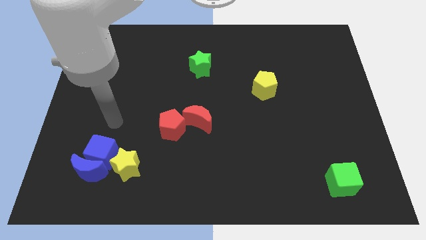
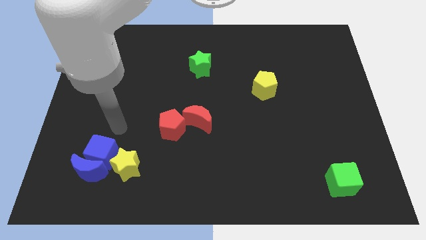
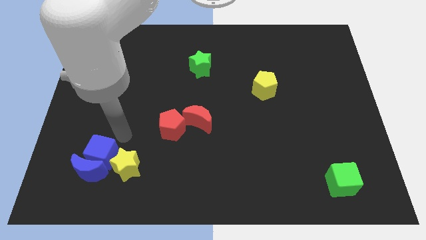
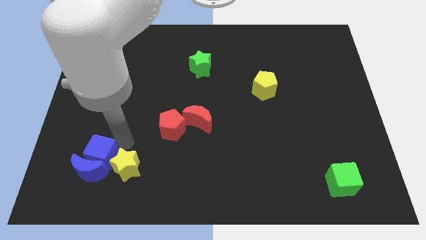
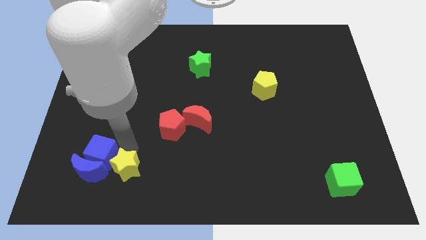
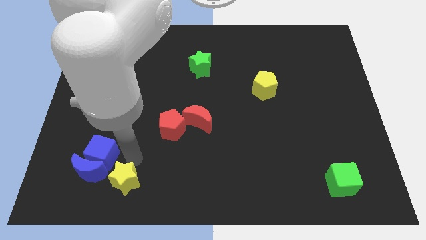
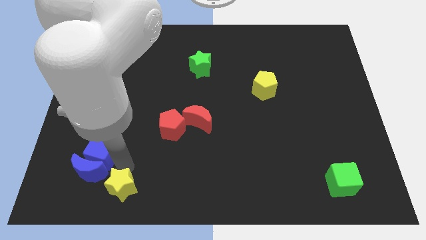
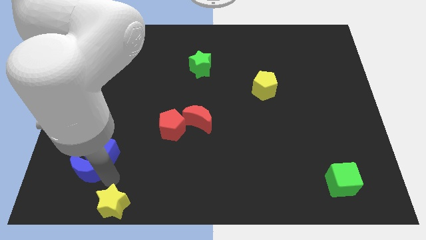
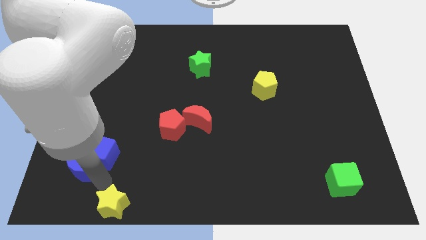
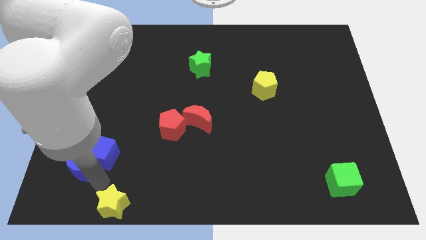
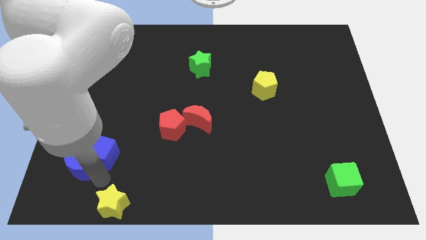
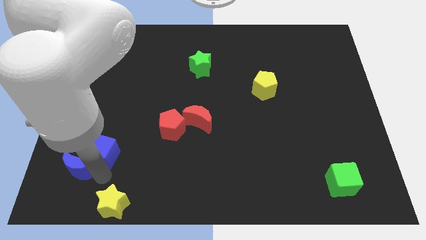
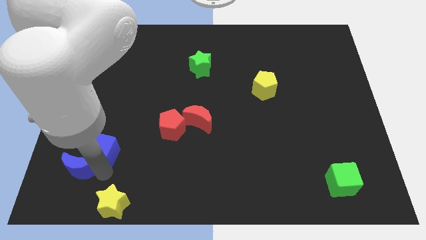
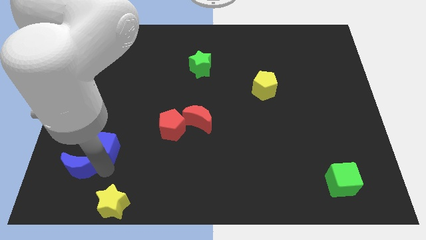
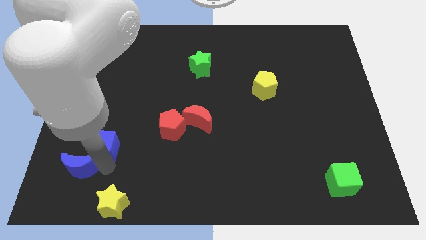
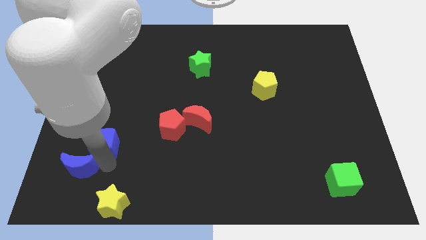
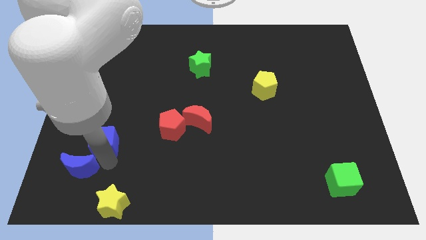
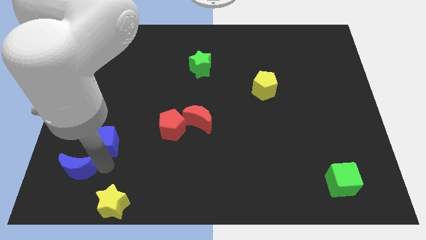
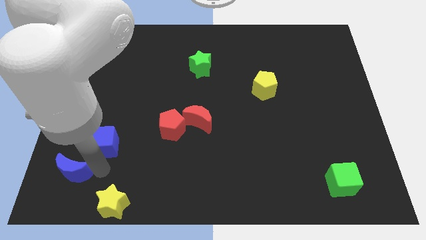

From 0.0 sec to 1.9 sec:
pull the blue cube apart from the blue moon and yellow star

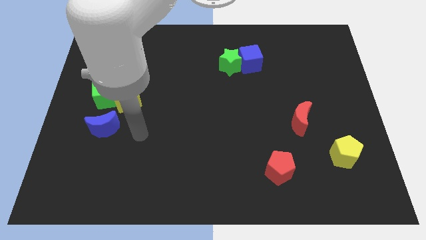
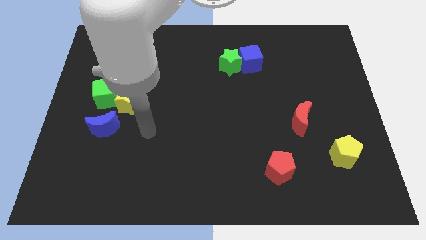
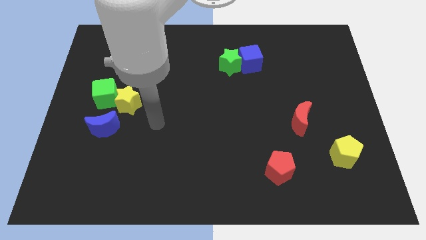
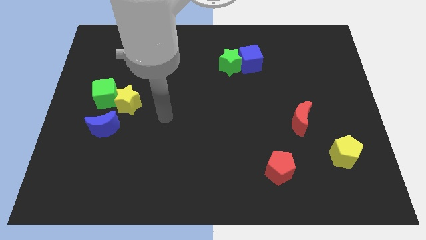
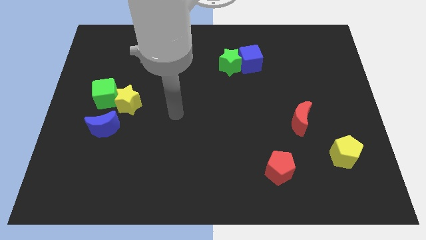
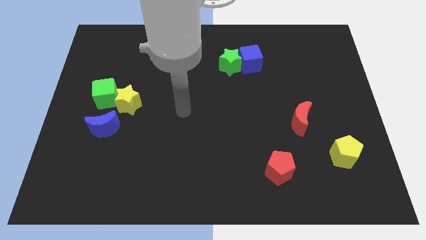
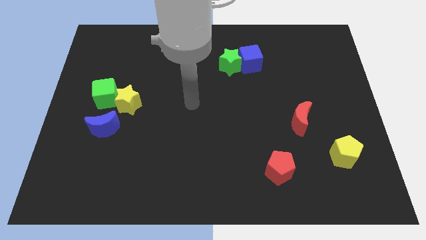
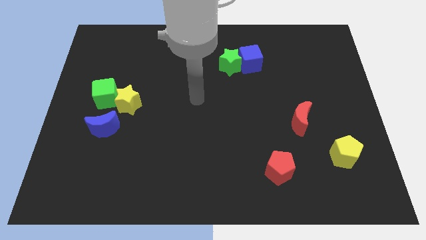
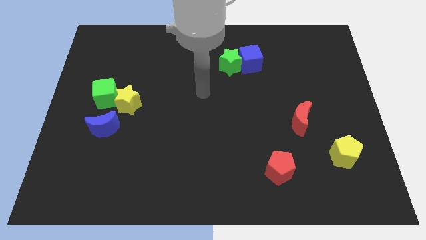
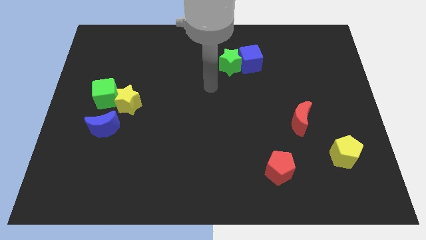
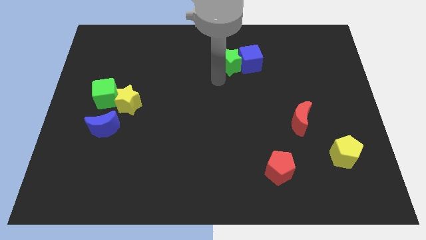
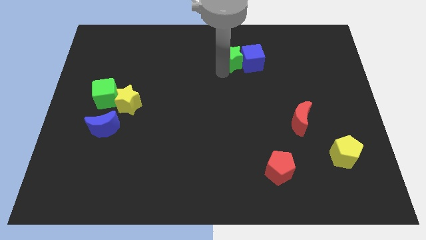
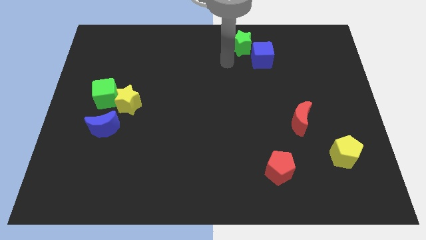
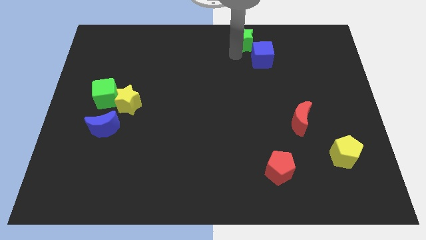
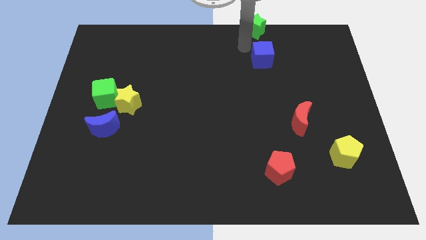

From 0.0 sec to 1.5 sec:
move the blue cube away from the green star

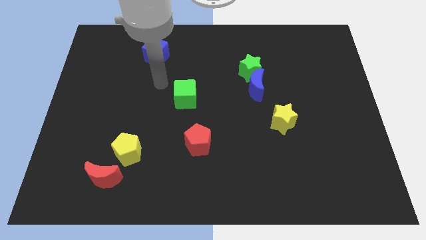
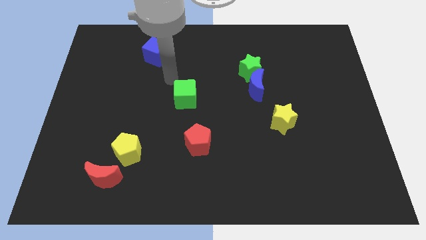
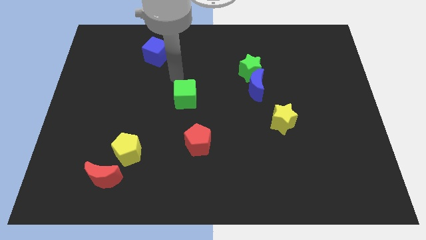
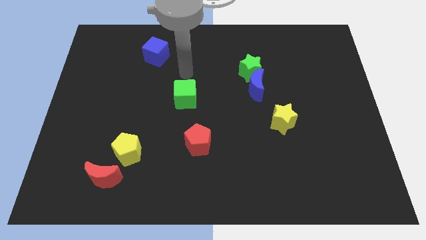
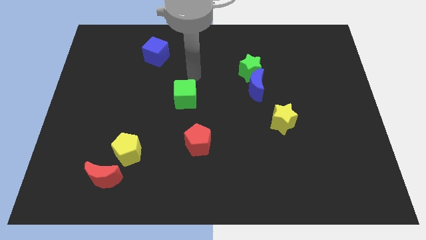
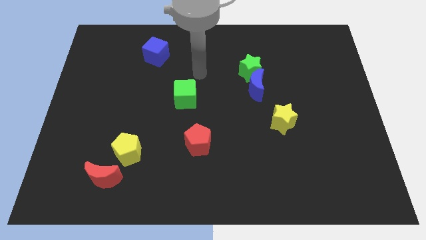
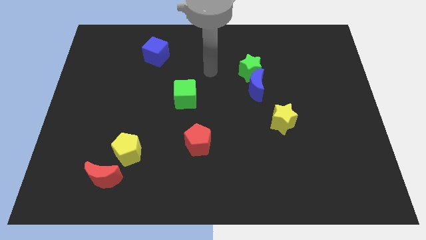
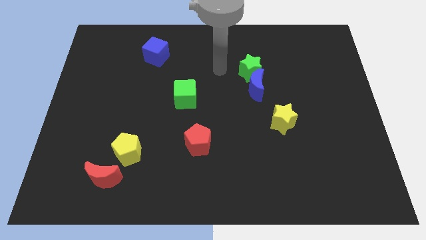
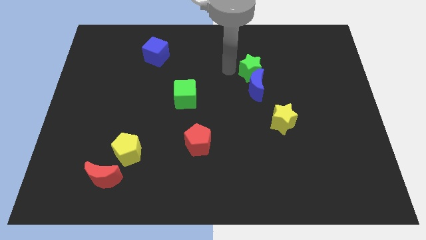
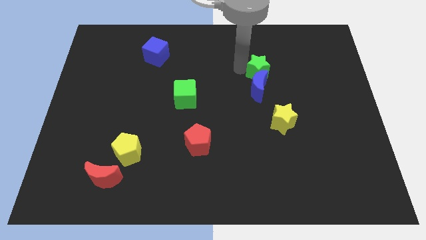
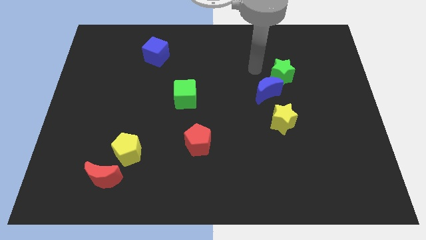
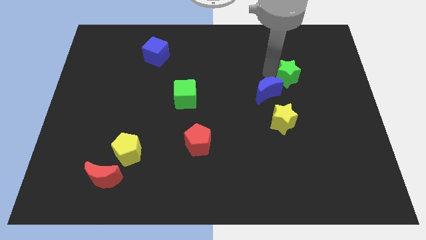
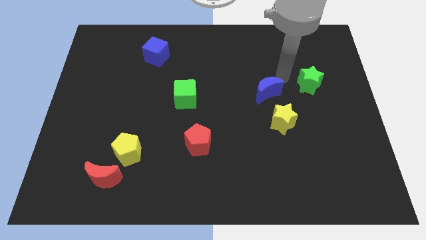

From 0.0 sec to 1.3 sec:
separate the blue moon from the green star

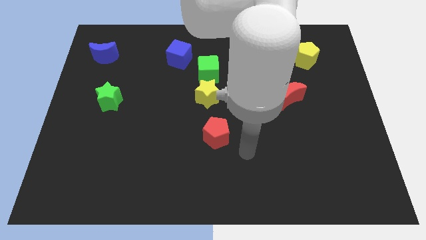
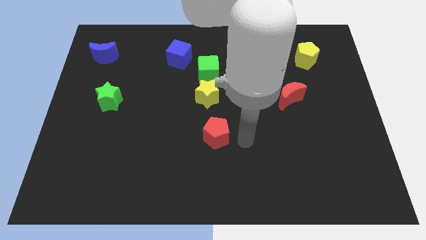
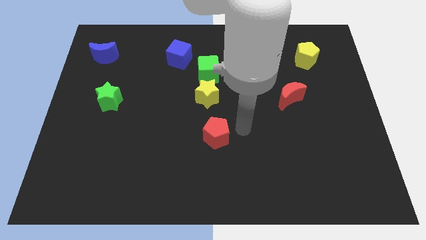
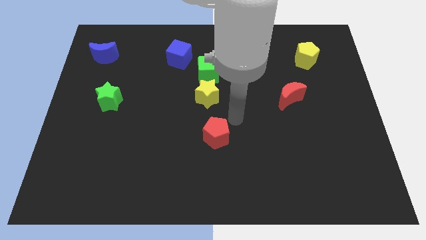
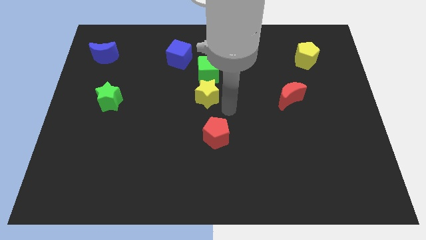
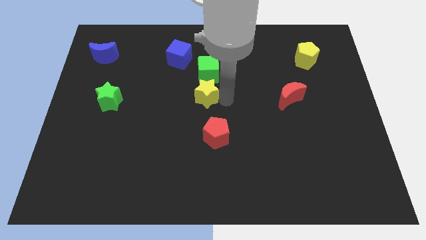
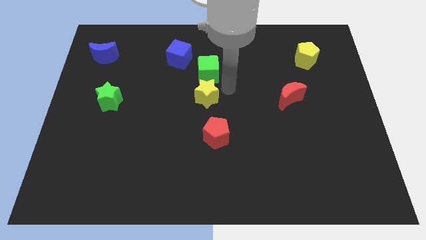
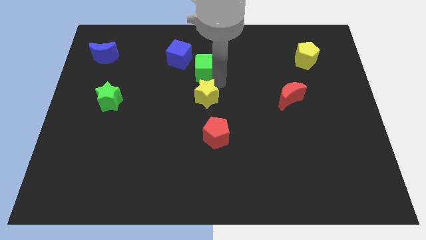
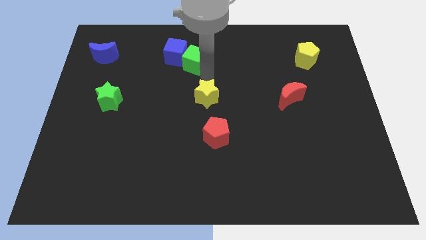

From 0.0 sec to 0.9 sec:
move the yellow star away from the green cube

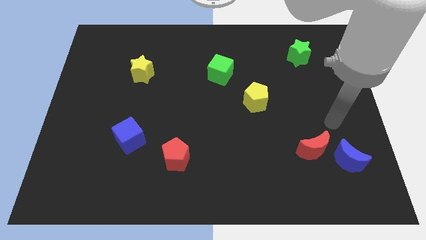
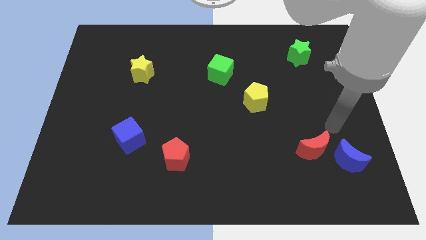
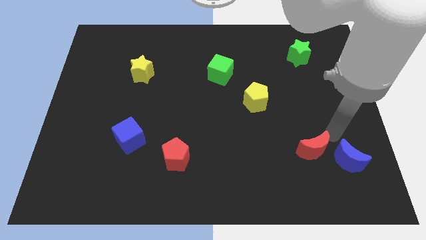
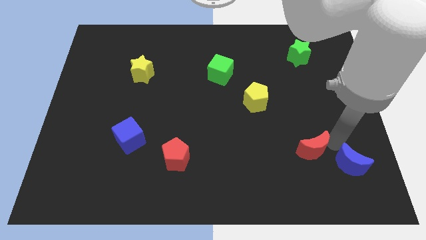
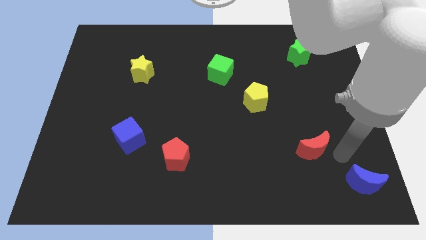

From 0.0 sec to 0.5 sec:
pull the red moon apart from the blue moon

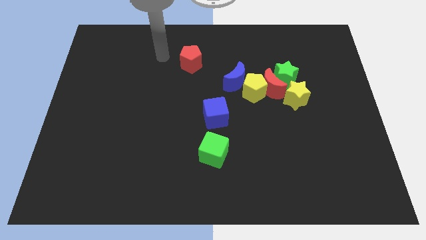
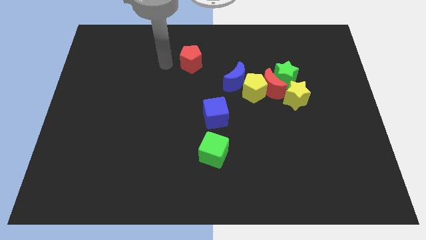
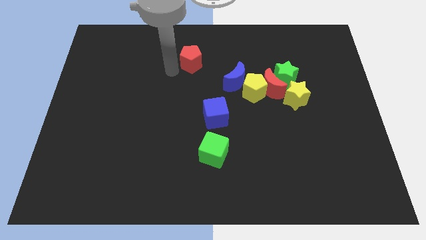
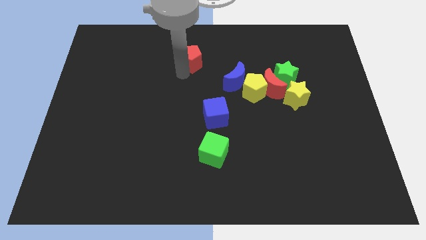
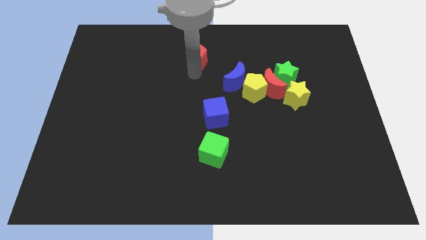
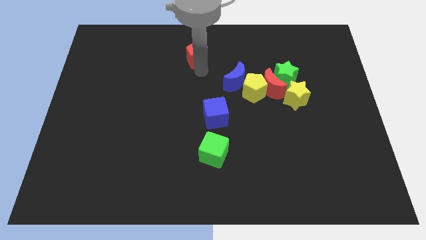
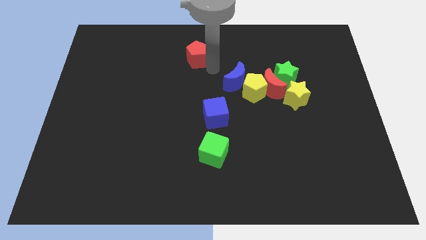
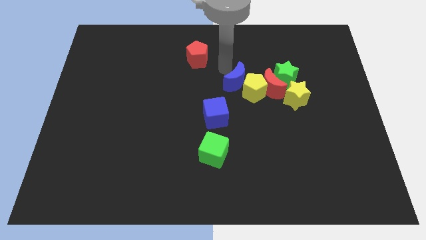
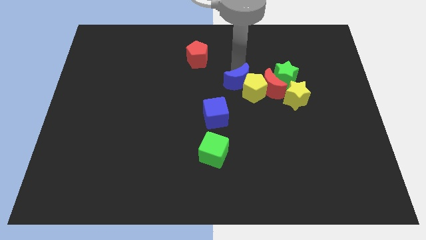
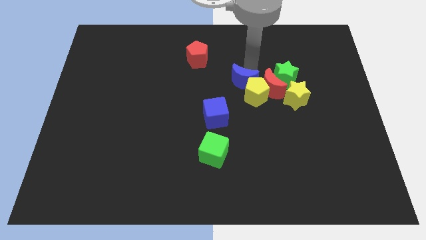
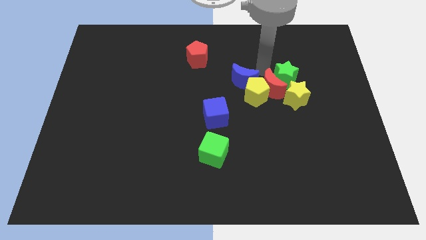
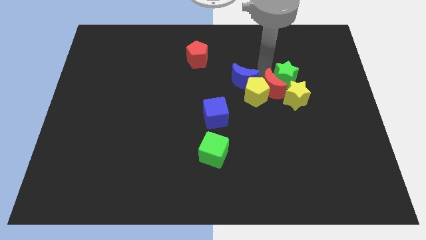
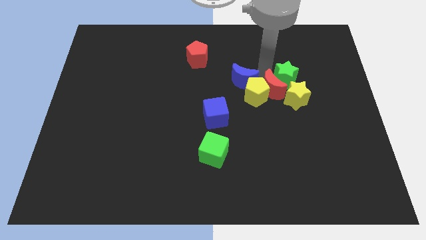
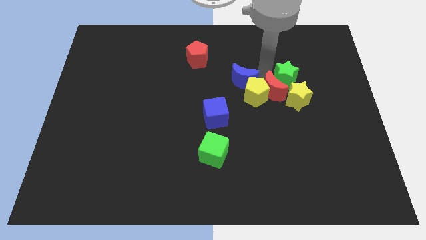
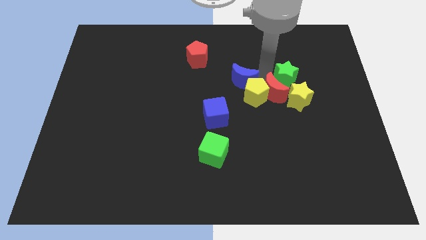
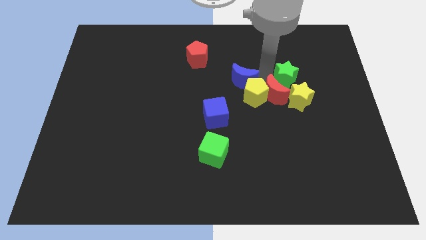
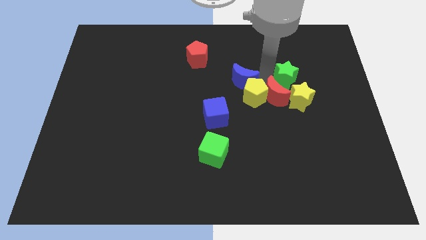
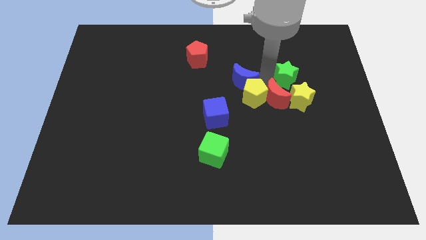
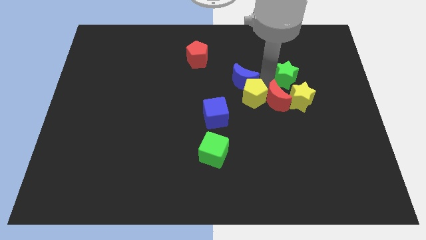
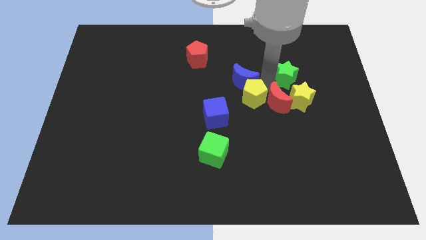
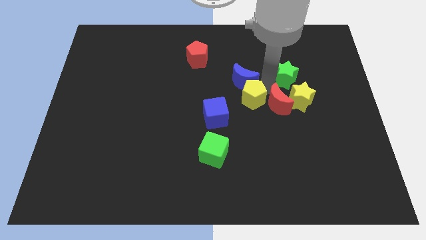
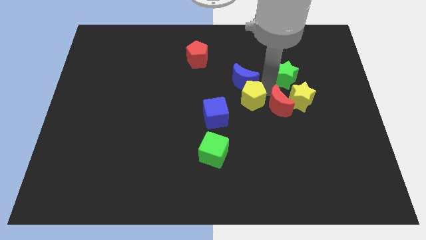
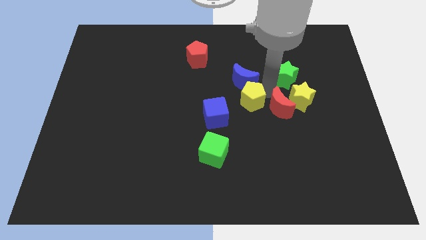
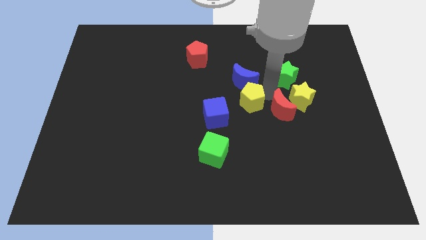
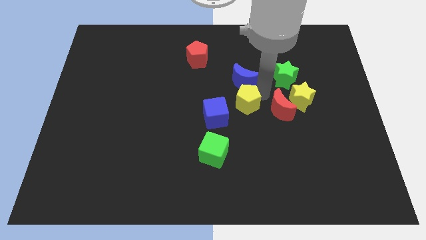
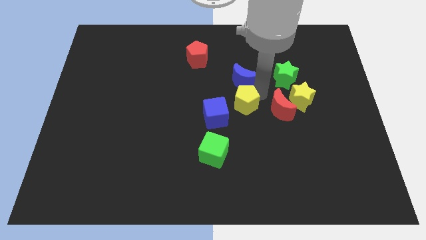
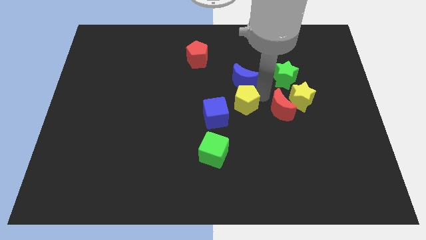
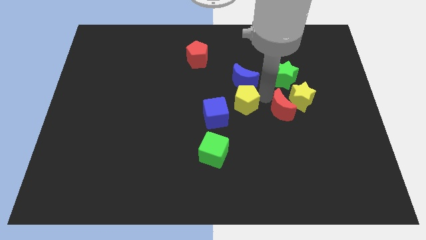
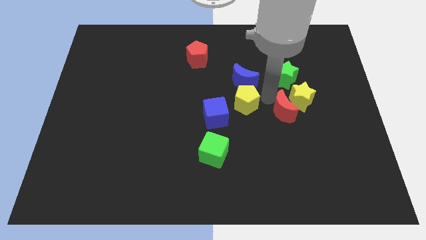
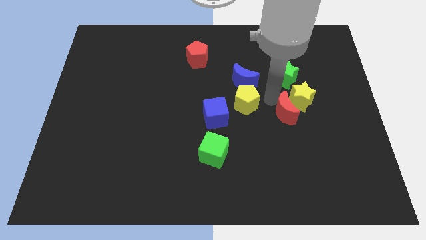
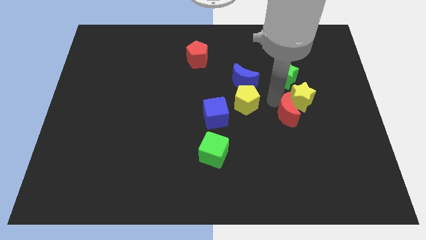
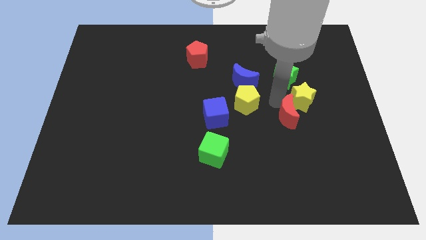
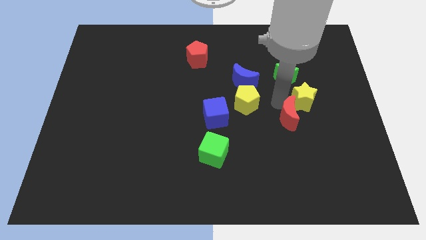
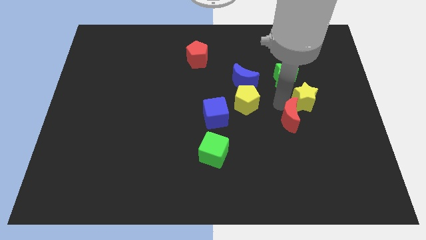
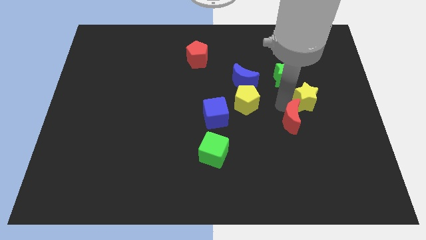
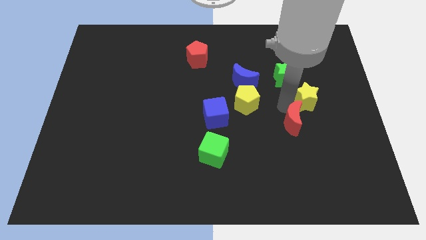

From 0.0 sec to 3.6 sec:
pull the red moon apart from the group
